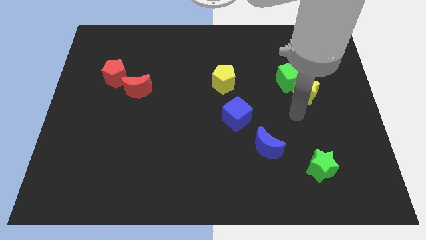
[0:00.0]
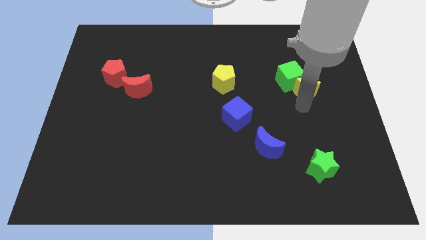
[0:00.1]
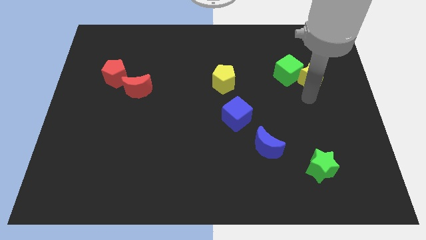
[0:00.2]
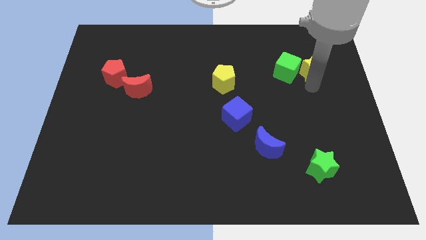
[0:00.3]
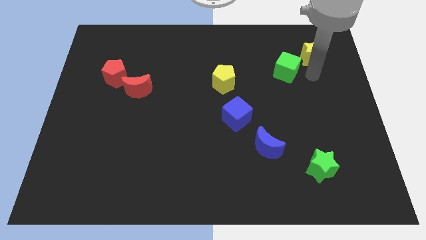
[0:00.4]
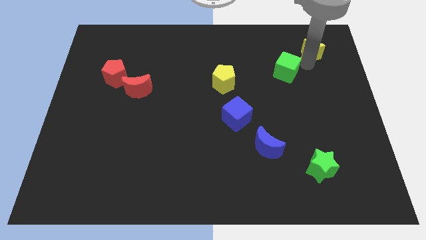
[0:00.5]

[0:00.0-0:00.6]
pull the green cube apart from the yellow star

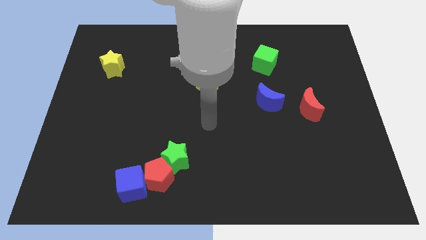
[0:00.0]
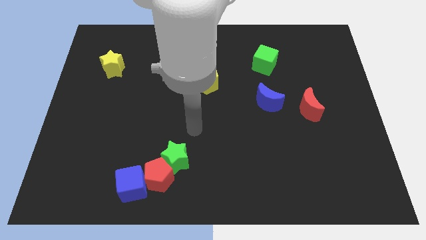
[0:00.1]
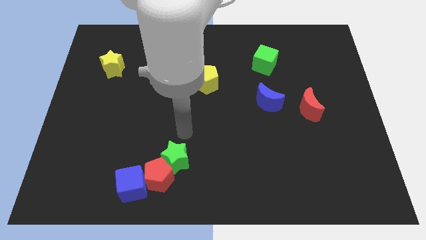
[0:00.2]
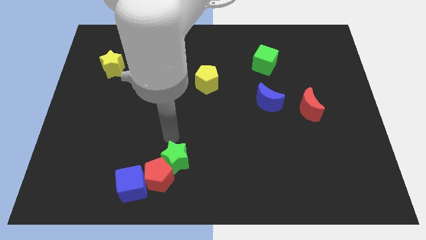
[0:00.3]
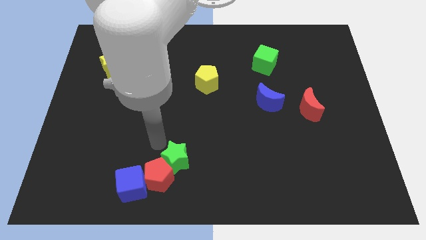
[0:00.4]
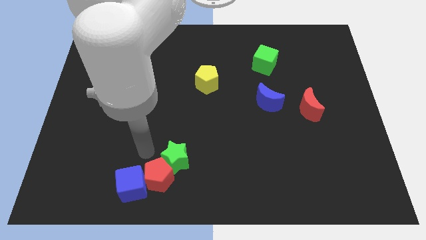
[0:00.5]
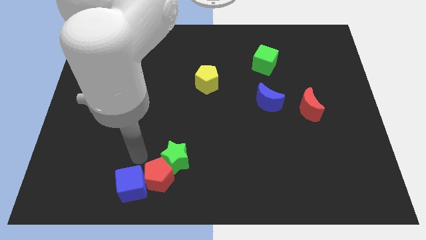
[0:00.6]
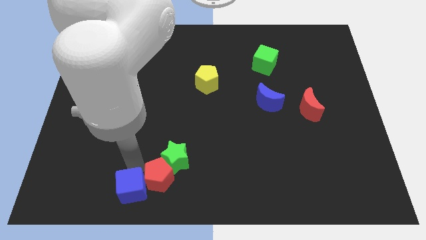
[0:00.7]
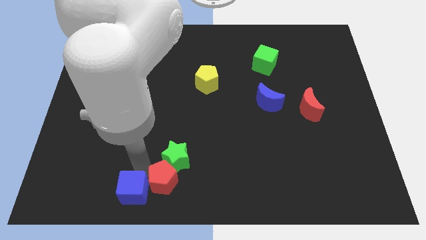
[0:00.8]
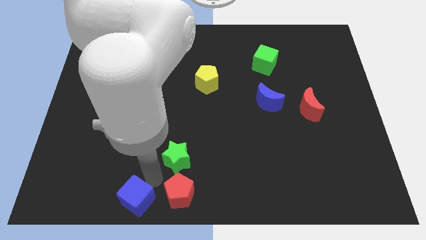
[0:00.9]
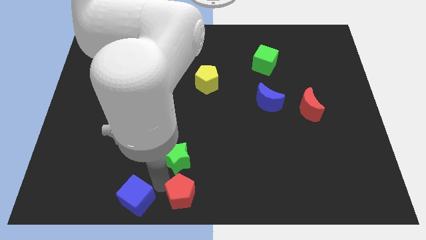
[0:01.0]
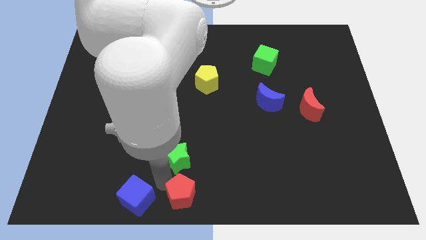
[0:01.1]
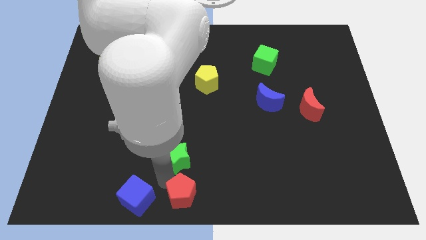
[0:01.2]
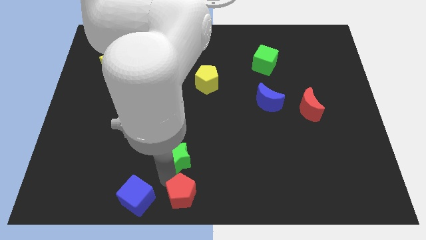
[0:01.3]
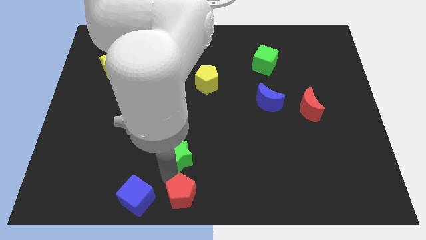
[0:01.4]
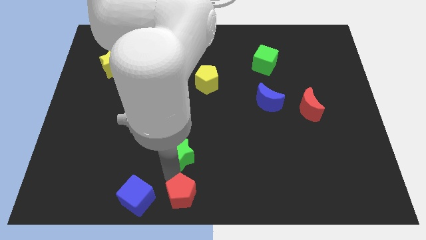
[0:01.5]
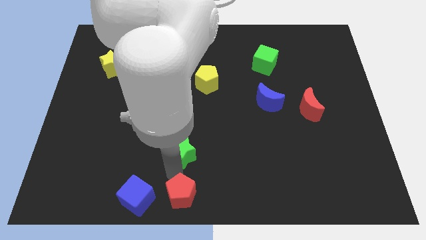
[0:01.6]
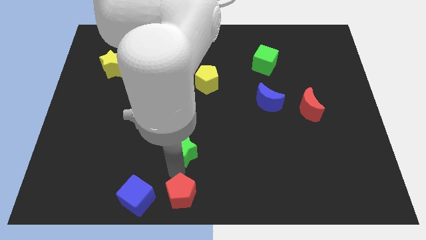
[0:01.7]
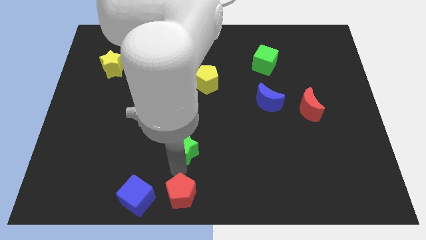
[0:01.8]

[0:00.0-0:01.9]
separate the green star from the red pentagon

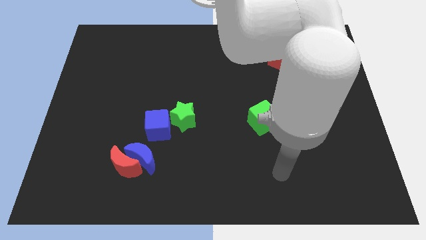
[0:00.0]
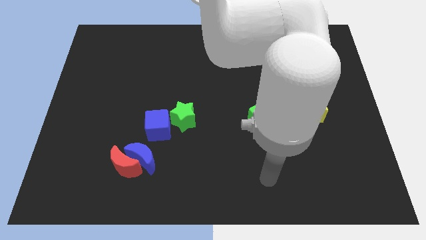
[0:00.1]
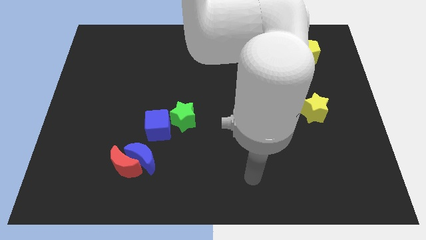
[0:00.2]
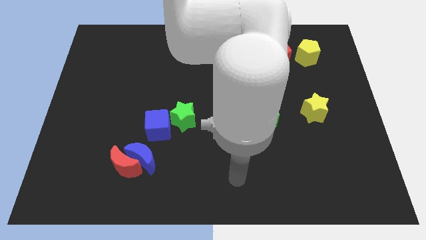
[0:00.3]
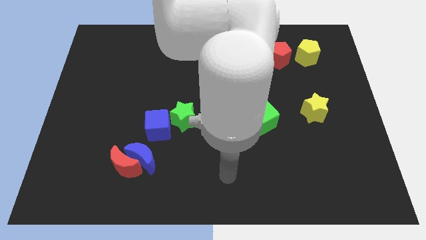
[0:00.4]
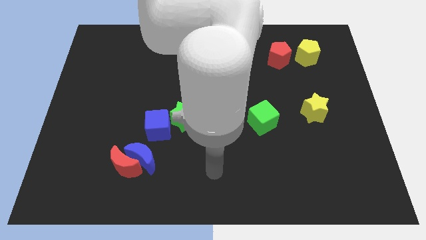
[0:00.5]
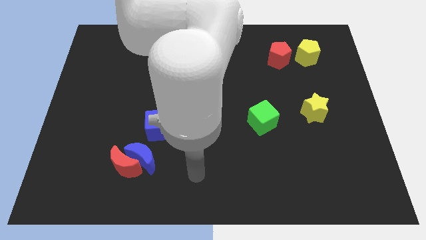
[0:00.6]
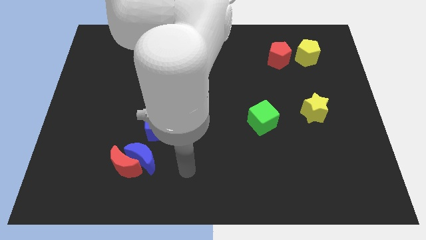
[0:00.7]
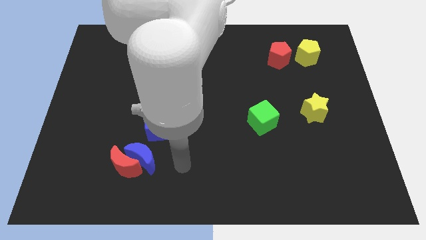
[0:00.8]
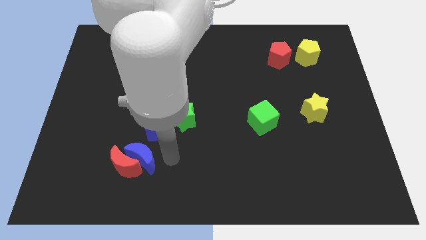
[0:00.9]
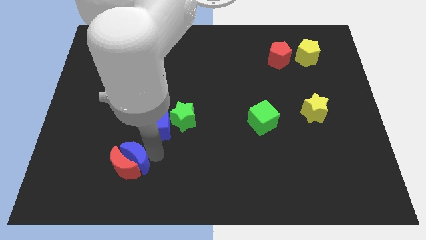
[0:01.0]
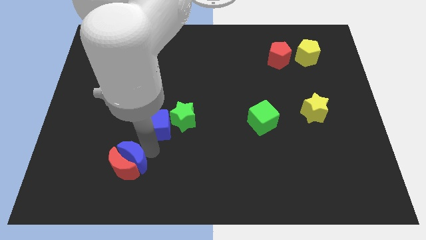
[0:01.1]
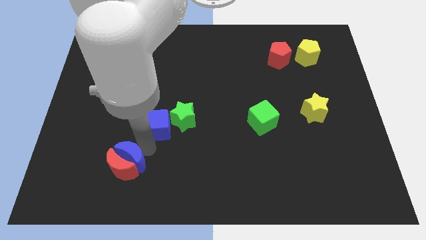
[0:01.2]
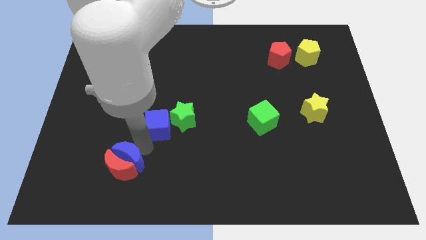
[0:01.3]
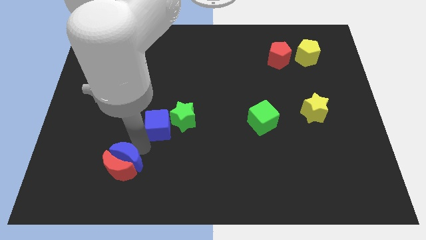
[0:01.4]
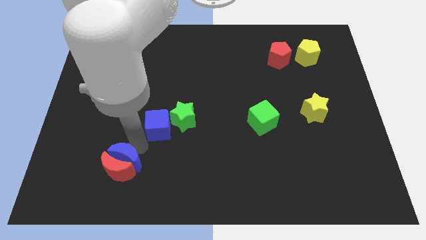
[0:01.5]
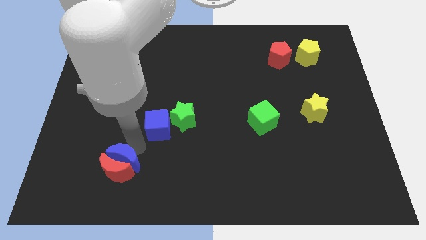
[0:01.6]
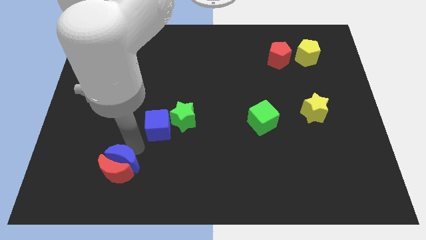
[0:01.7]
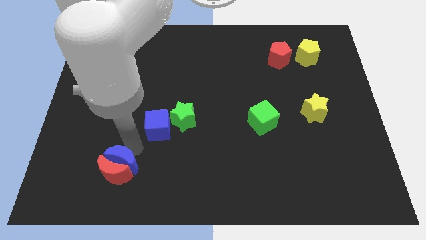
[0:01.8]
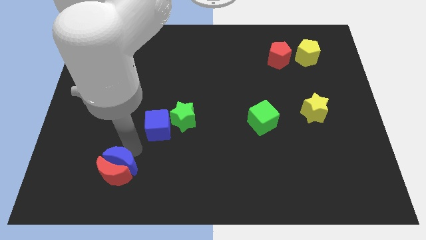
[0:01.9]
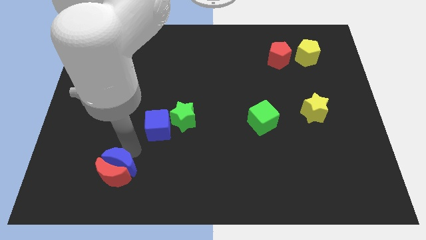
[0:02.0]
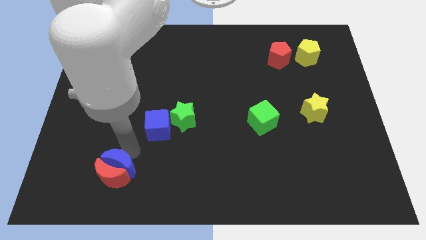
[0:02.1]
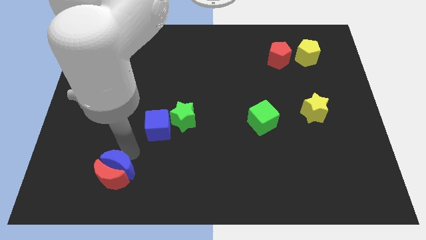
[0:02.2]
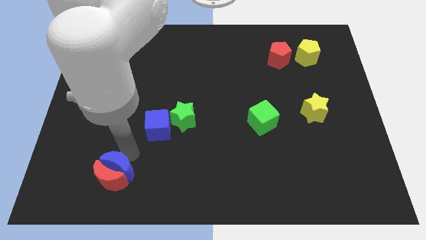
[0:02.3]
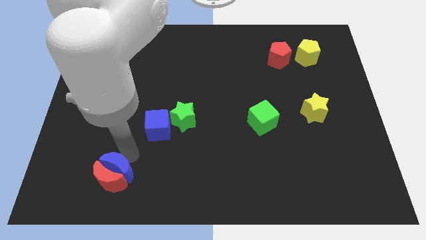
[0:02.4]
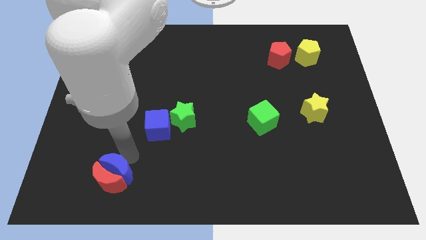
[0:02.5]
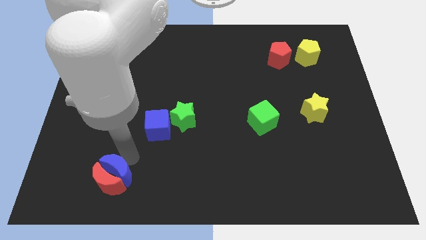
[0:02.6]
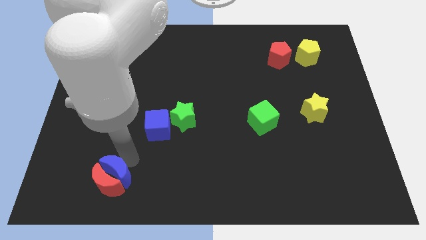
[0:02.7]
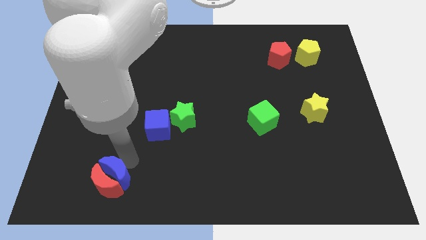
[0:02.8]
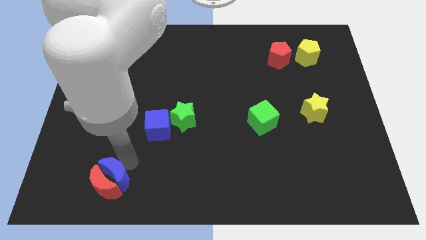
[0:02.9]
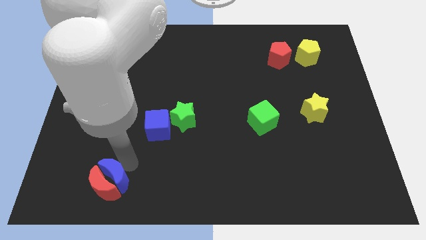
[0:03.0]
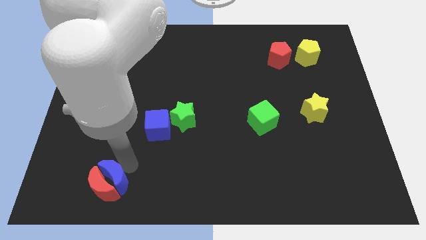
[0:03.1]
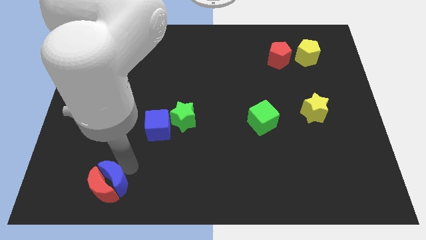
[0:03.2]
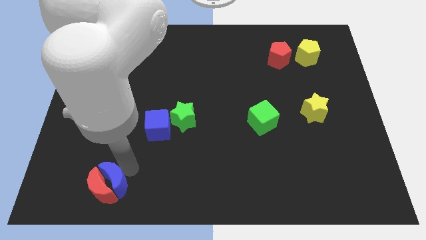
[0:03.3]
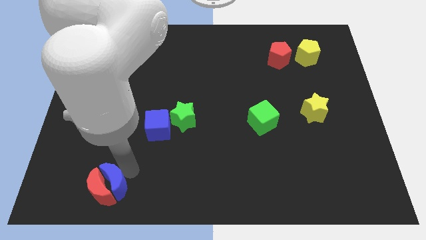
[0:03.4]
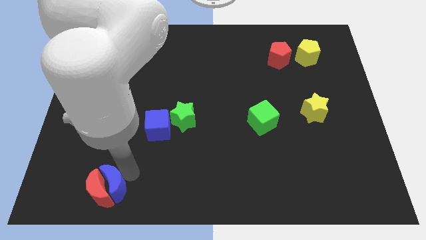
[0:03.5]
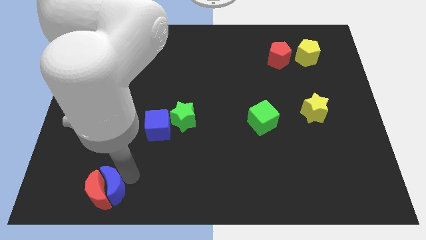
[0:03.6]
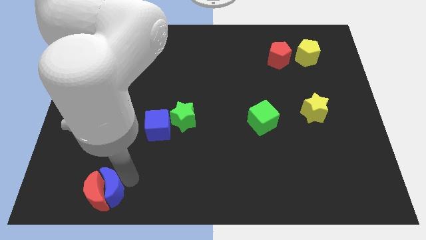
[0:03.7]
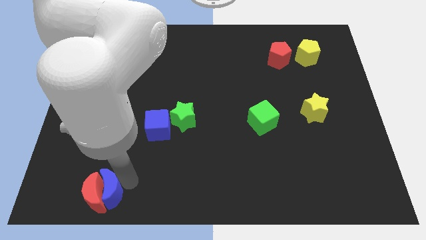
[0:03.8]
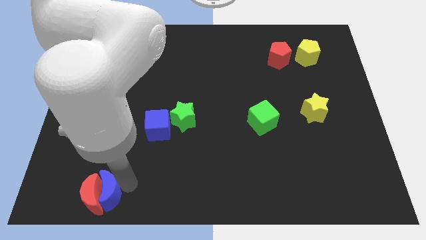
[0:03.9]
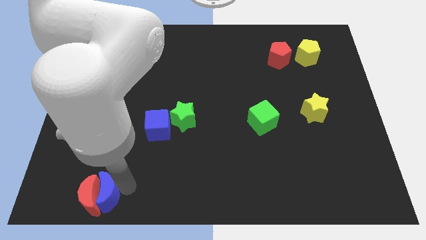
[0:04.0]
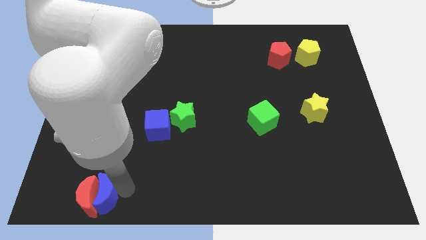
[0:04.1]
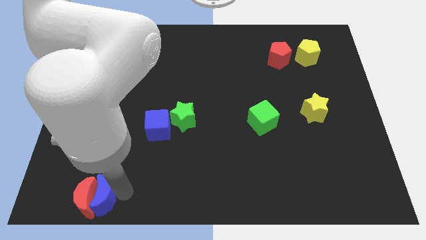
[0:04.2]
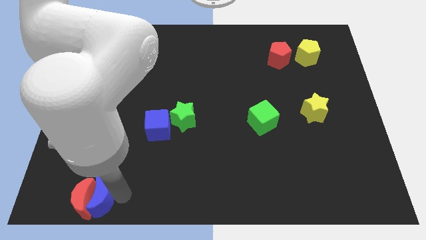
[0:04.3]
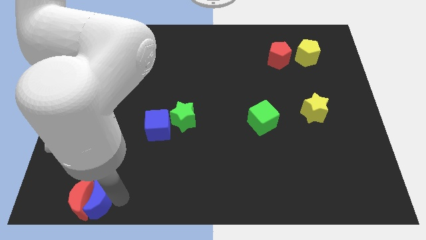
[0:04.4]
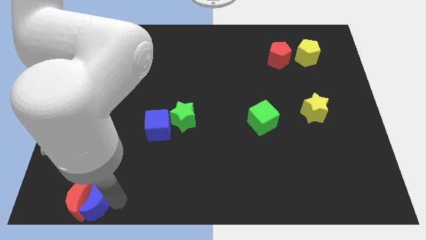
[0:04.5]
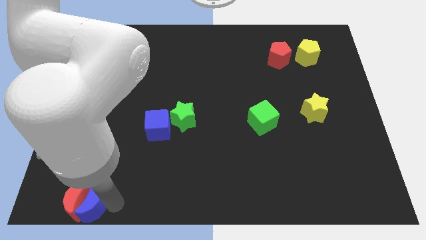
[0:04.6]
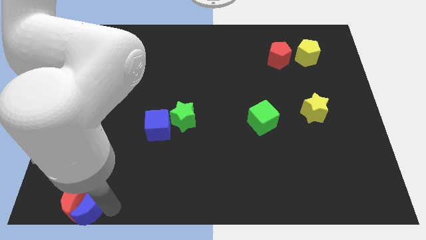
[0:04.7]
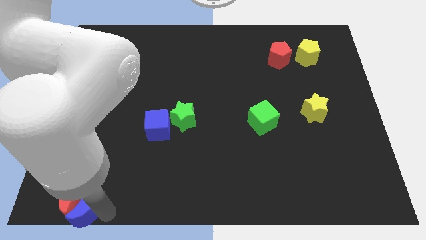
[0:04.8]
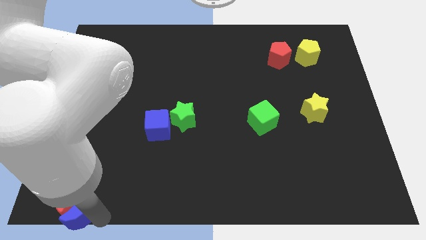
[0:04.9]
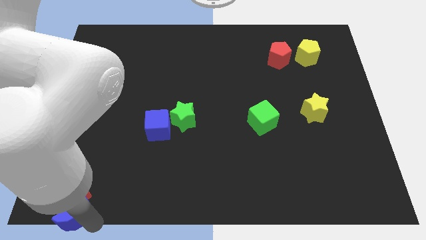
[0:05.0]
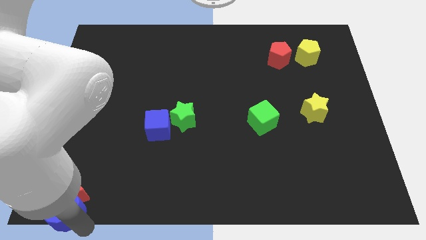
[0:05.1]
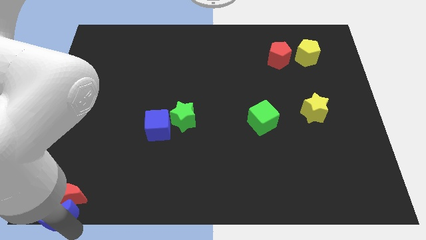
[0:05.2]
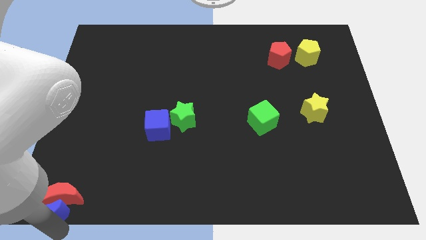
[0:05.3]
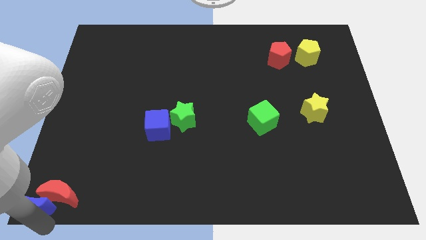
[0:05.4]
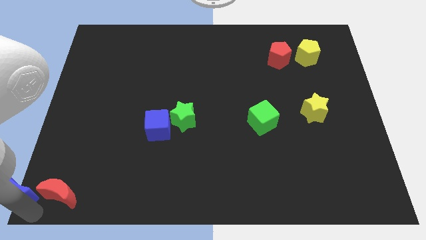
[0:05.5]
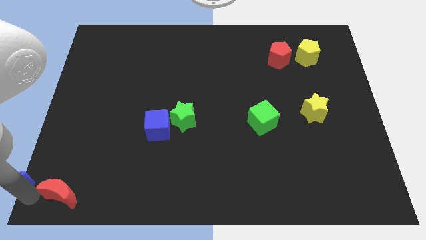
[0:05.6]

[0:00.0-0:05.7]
separate the red moon from the blue moon

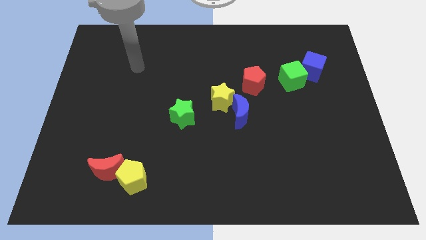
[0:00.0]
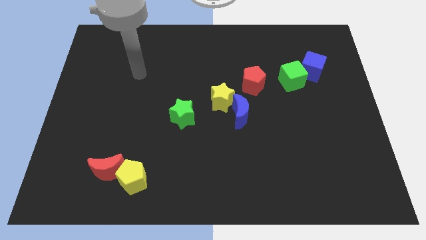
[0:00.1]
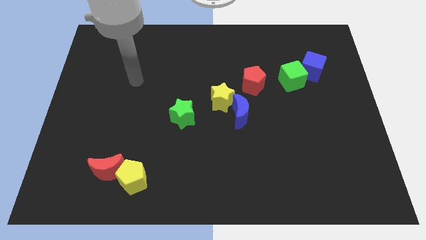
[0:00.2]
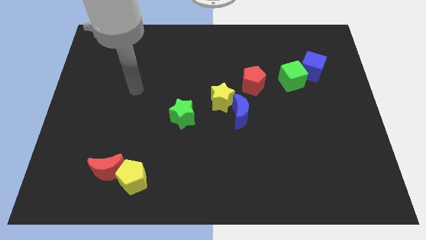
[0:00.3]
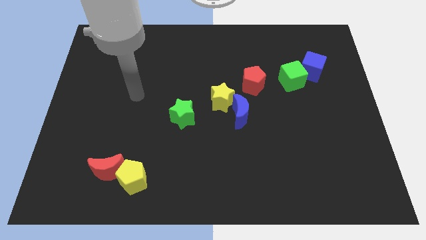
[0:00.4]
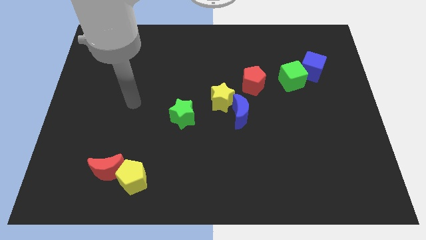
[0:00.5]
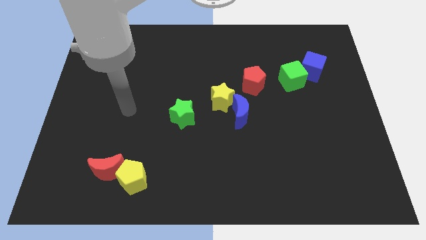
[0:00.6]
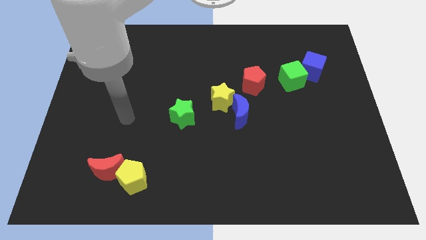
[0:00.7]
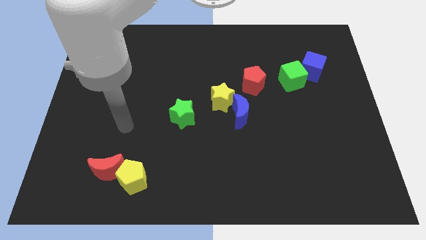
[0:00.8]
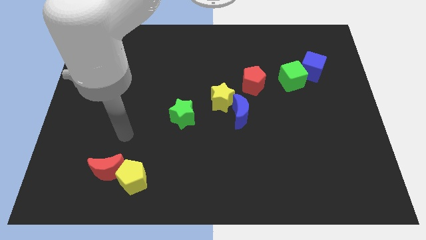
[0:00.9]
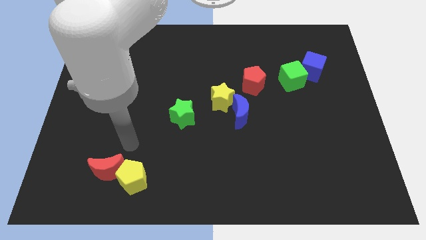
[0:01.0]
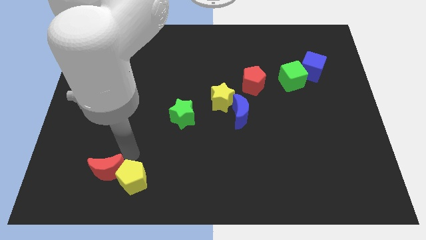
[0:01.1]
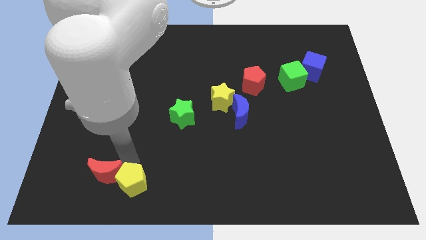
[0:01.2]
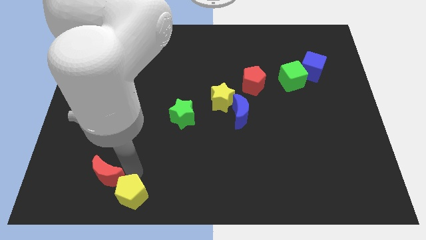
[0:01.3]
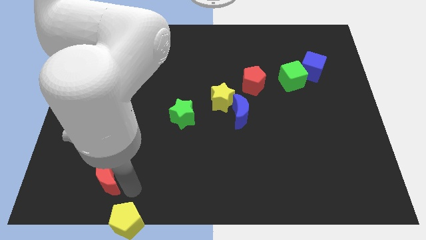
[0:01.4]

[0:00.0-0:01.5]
pull the red moon apart from the yellow pentagon
